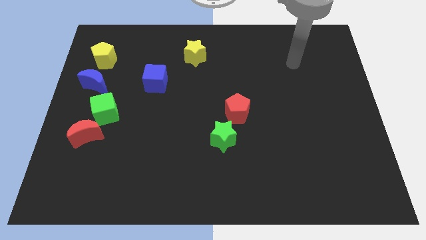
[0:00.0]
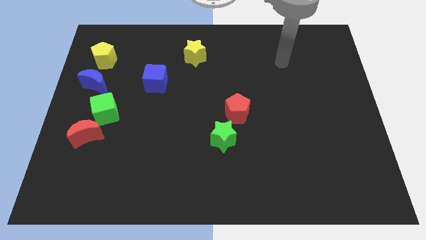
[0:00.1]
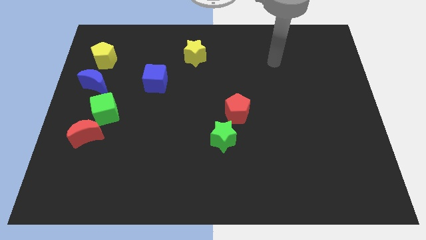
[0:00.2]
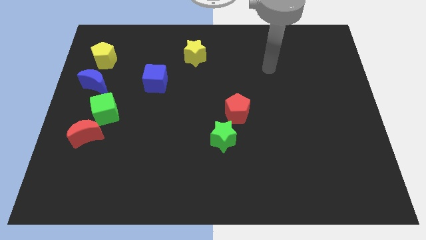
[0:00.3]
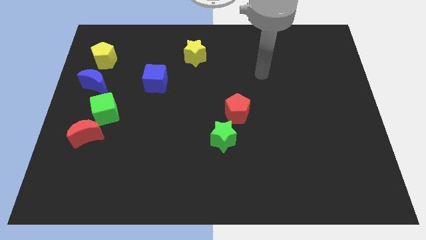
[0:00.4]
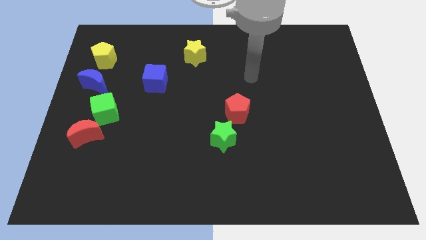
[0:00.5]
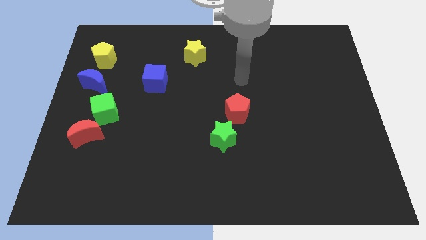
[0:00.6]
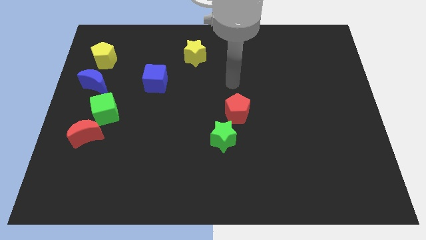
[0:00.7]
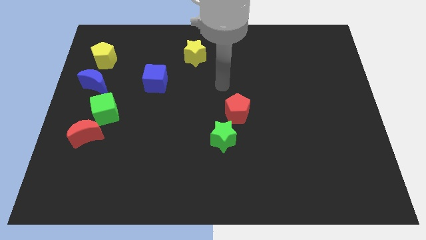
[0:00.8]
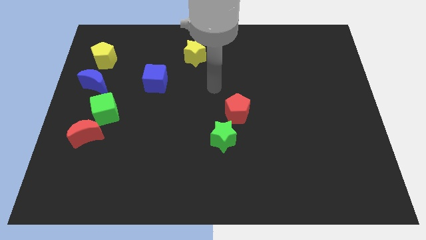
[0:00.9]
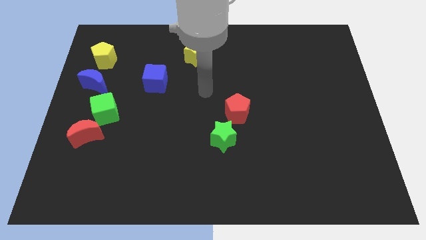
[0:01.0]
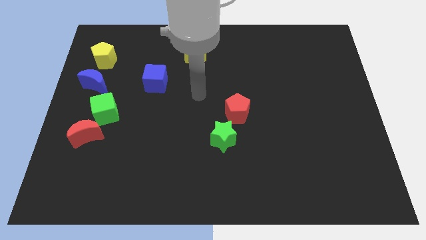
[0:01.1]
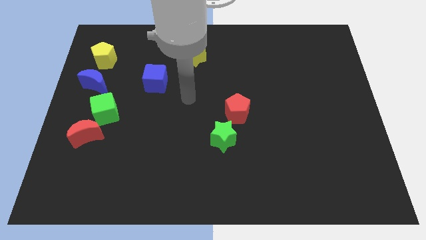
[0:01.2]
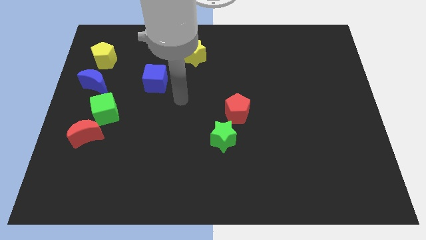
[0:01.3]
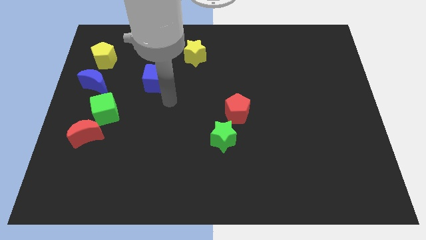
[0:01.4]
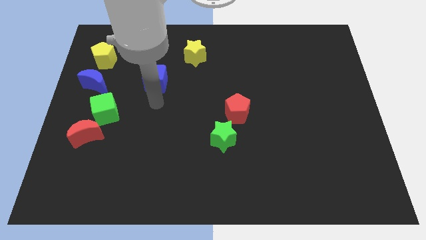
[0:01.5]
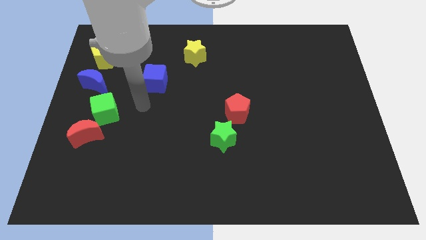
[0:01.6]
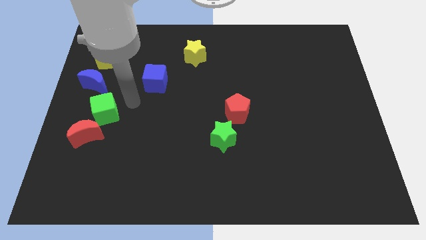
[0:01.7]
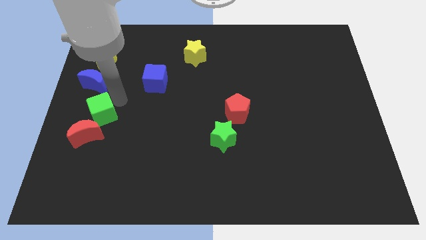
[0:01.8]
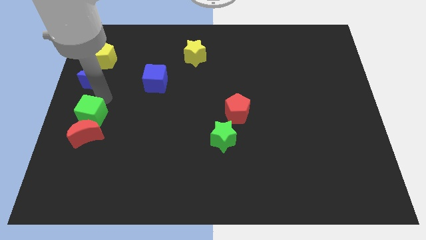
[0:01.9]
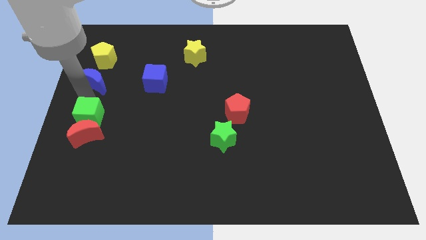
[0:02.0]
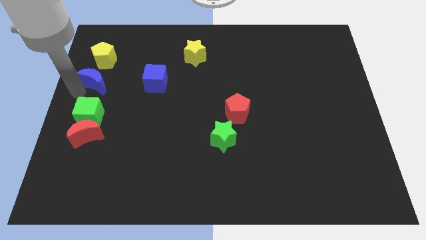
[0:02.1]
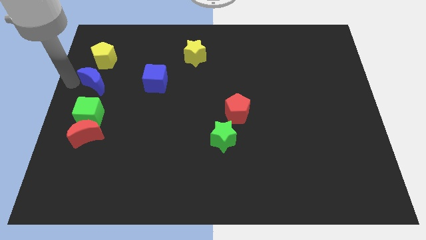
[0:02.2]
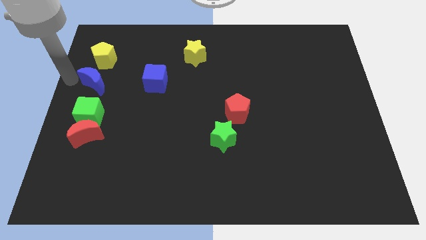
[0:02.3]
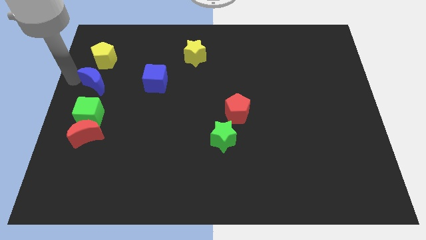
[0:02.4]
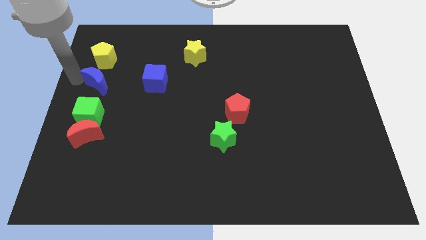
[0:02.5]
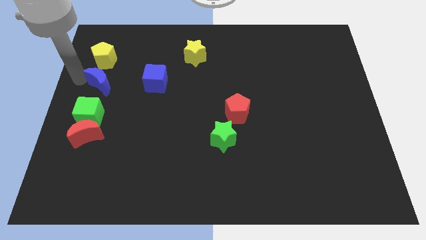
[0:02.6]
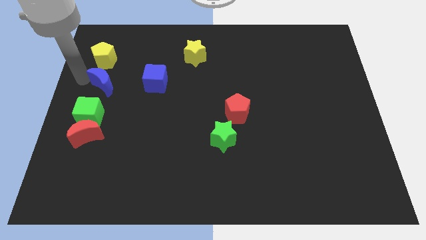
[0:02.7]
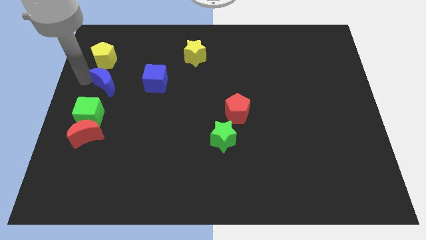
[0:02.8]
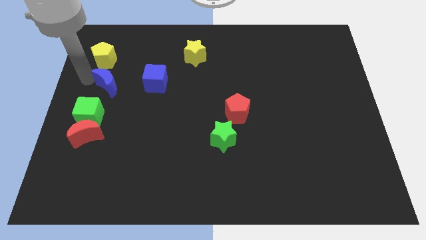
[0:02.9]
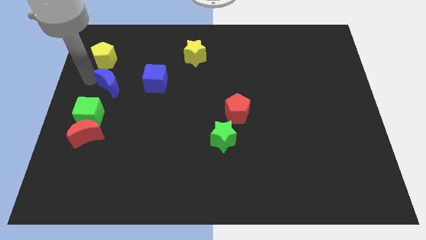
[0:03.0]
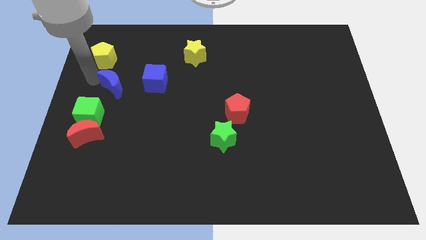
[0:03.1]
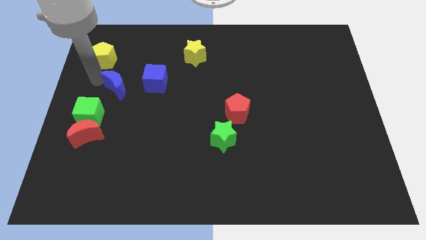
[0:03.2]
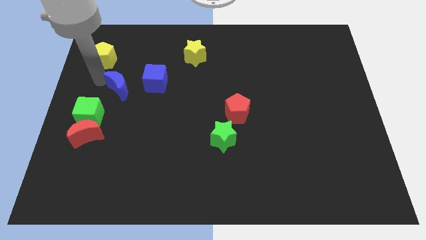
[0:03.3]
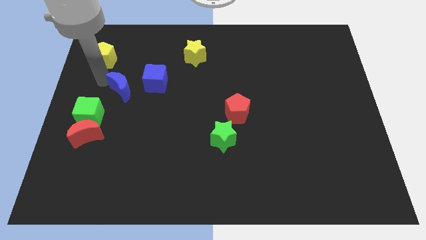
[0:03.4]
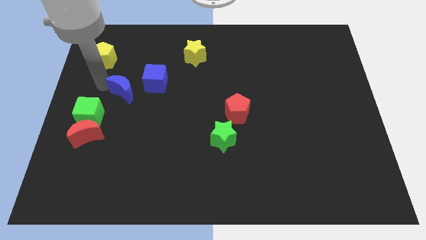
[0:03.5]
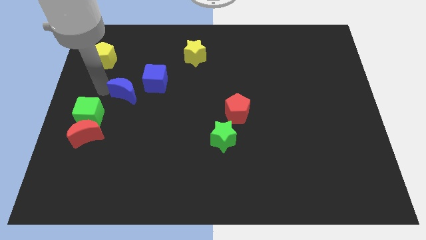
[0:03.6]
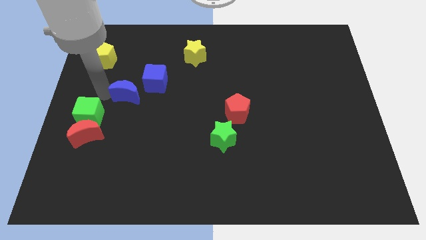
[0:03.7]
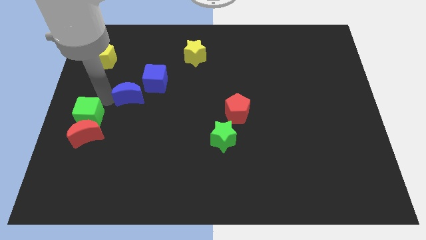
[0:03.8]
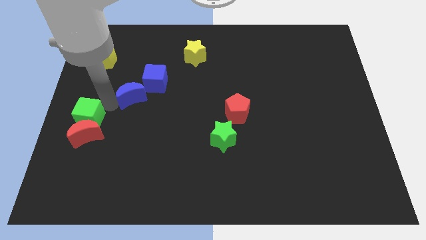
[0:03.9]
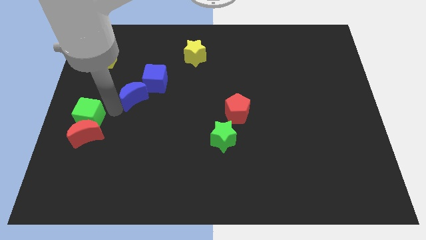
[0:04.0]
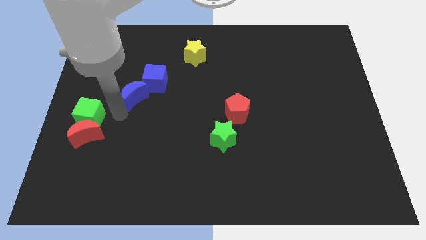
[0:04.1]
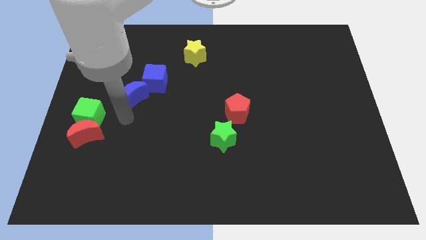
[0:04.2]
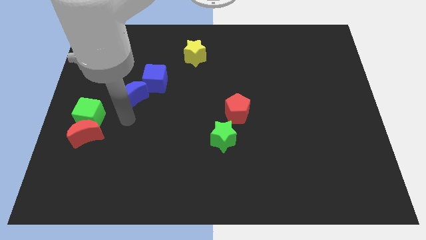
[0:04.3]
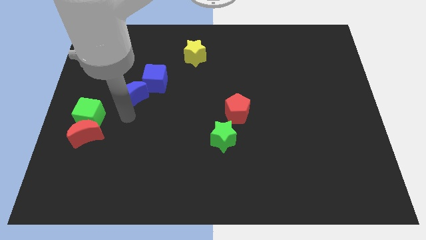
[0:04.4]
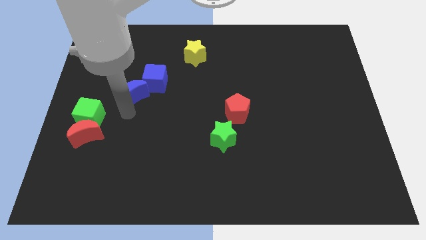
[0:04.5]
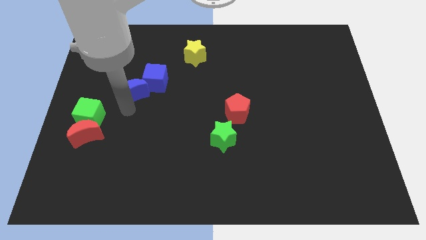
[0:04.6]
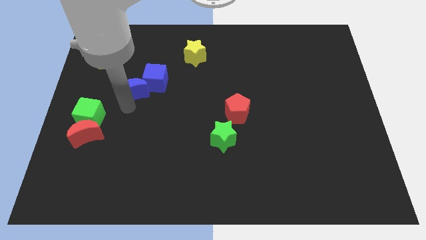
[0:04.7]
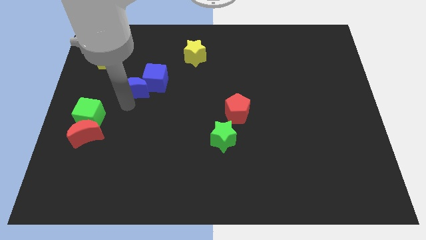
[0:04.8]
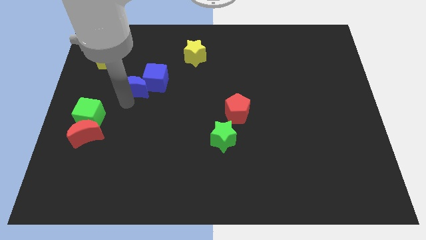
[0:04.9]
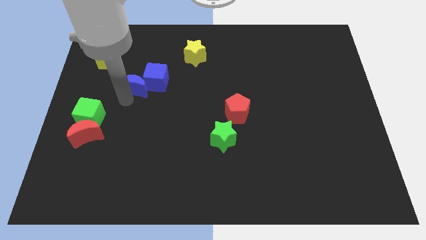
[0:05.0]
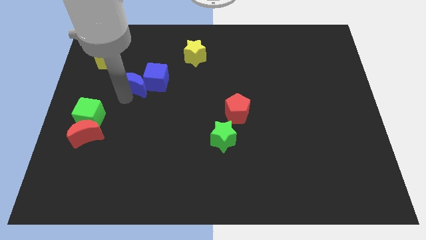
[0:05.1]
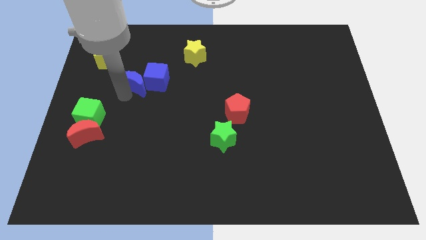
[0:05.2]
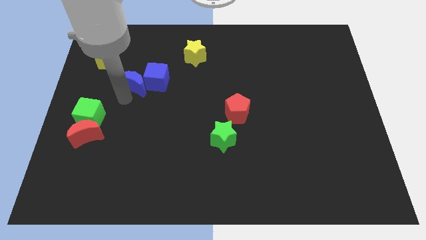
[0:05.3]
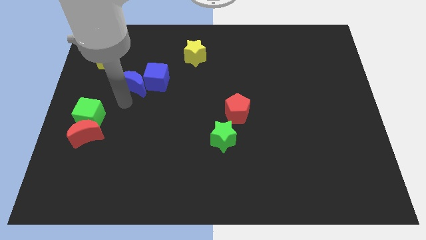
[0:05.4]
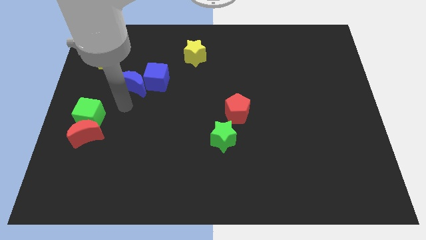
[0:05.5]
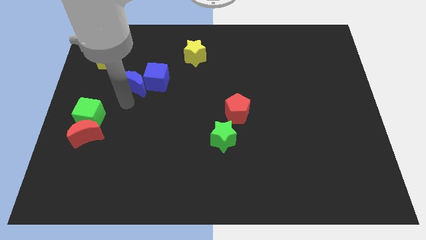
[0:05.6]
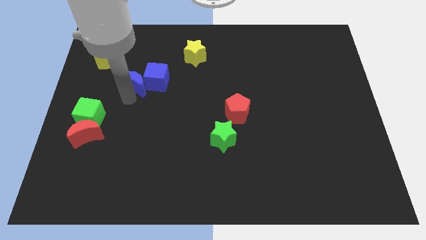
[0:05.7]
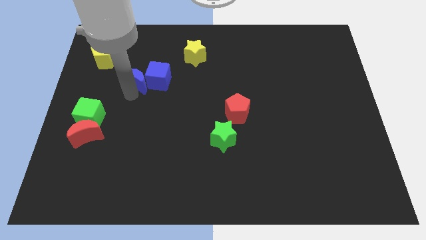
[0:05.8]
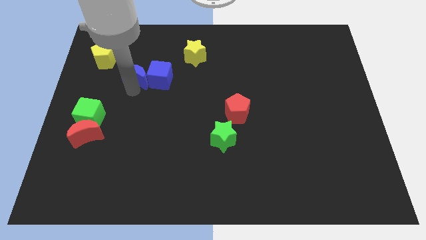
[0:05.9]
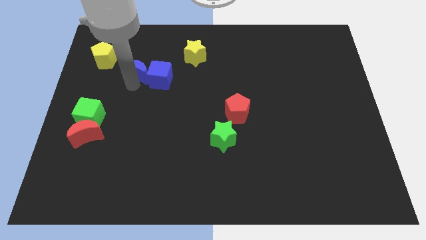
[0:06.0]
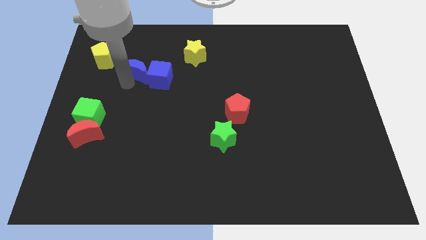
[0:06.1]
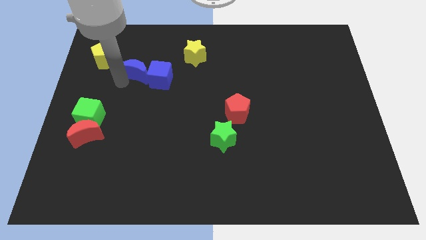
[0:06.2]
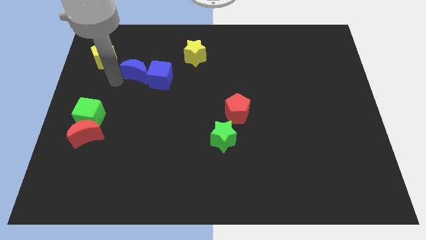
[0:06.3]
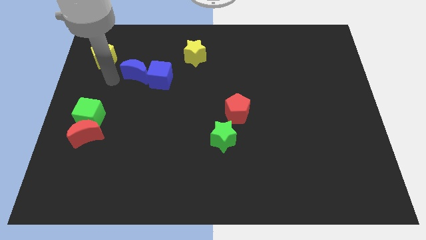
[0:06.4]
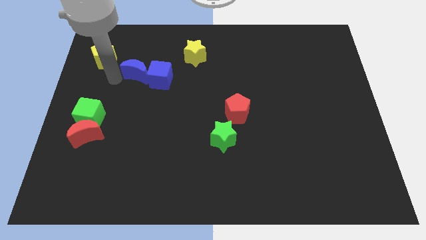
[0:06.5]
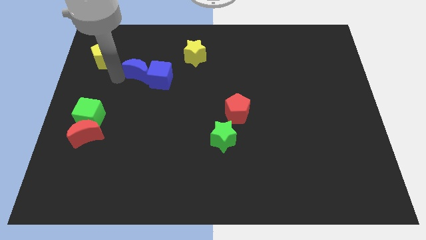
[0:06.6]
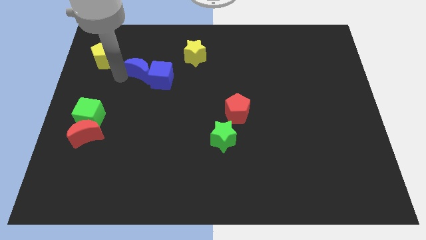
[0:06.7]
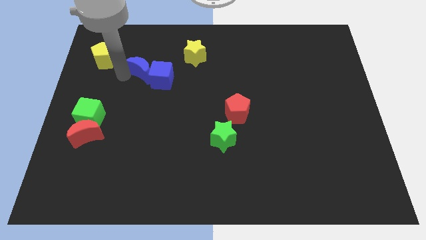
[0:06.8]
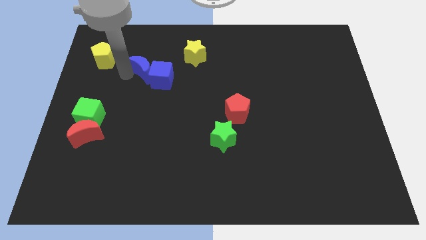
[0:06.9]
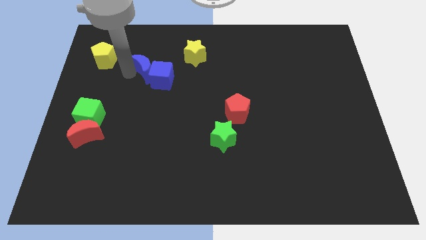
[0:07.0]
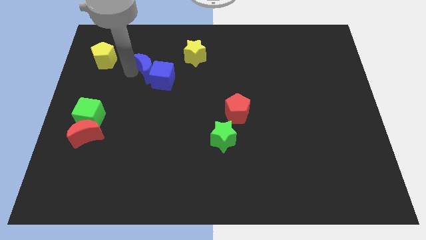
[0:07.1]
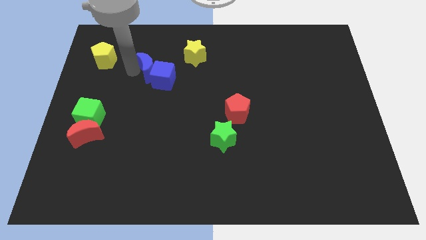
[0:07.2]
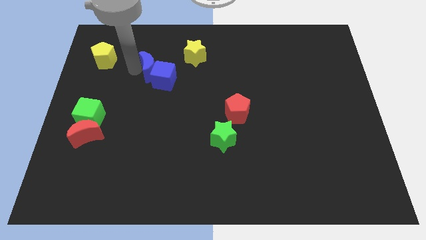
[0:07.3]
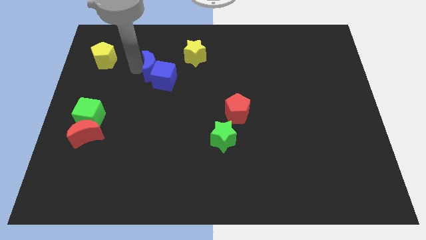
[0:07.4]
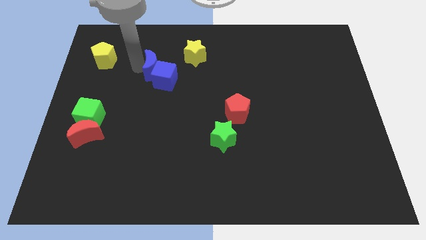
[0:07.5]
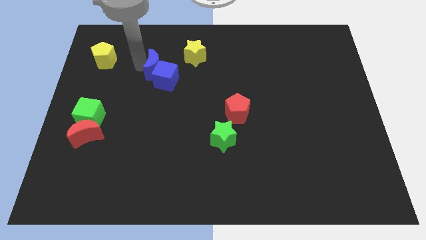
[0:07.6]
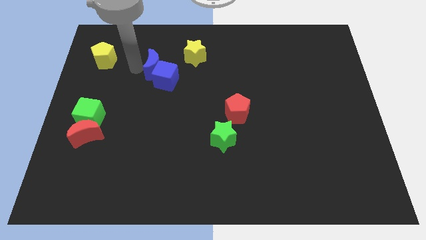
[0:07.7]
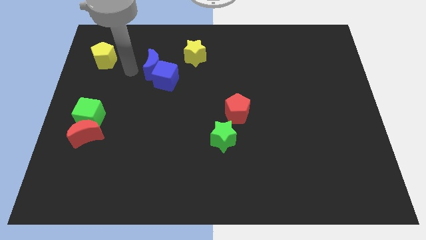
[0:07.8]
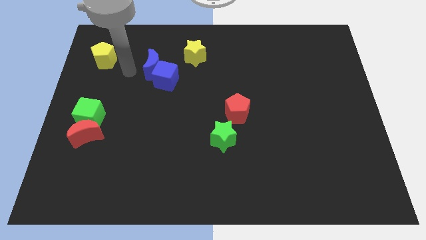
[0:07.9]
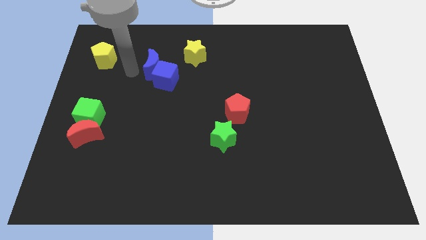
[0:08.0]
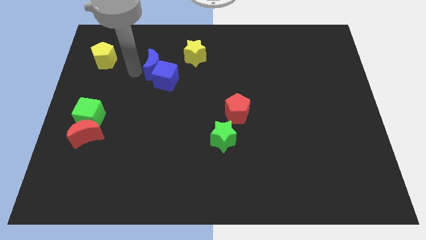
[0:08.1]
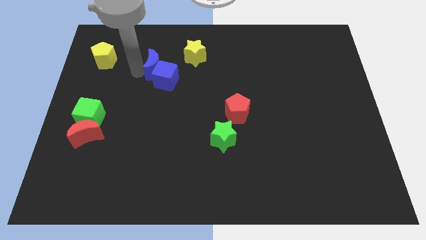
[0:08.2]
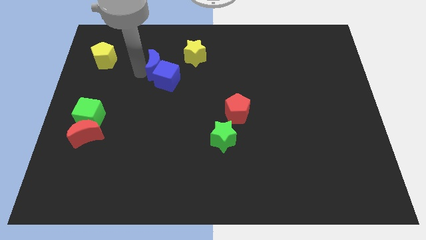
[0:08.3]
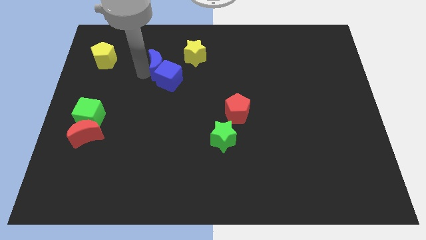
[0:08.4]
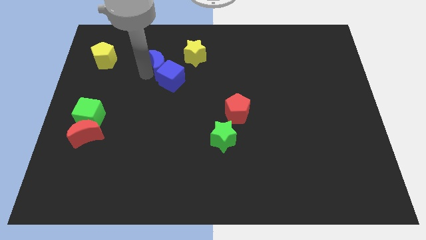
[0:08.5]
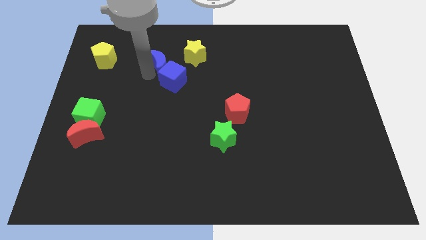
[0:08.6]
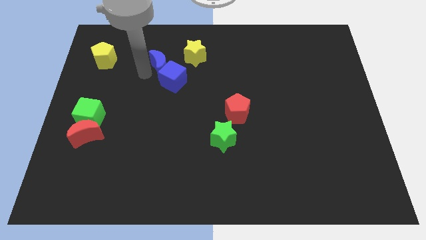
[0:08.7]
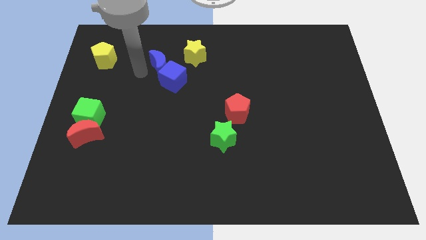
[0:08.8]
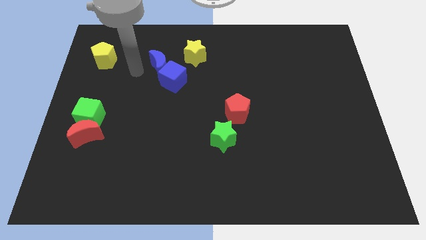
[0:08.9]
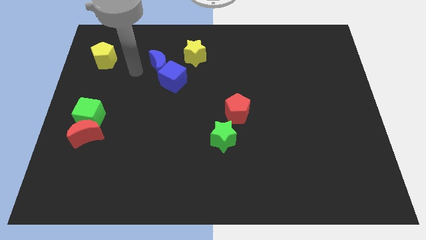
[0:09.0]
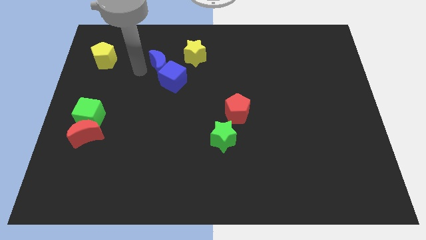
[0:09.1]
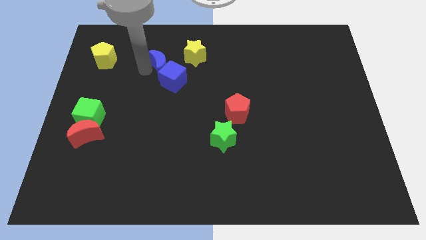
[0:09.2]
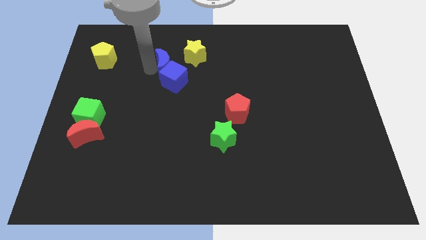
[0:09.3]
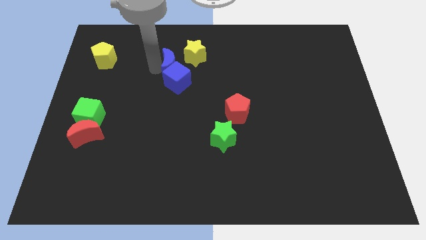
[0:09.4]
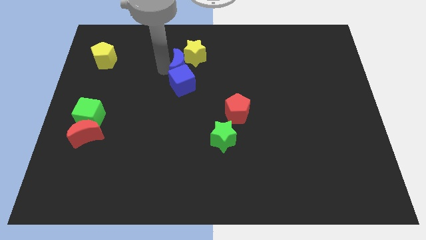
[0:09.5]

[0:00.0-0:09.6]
slide the blue moon to the yellow star
